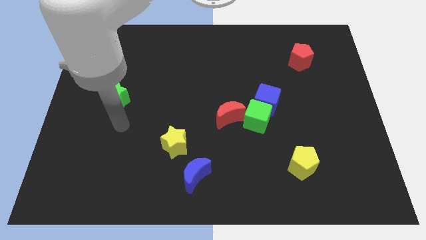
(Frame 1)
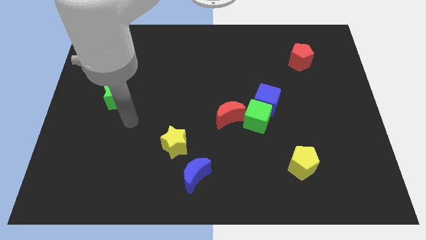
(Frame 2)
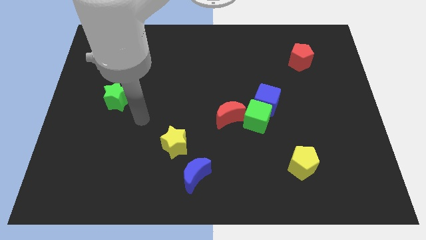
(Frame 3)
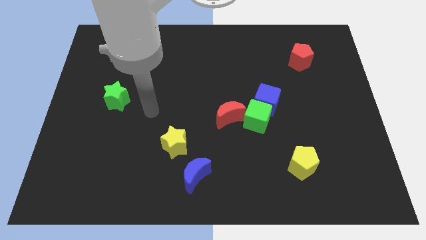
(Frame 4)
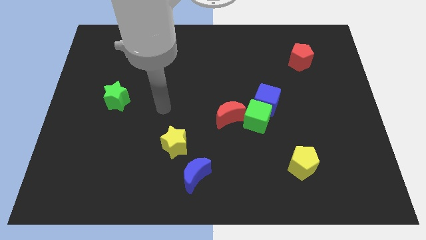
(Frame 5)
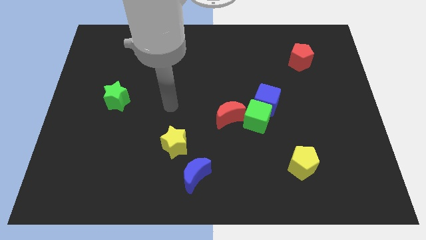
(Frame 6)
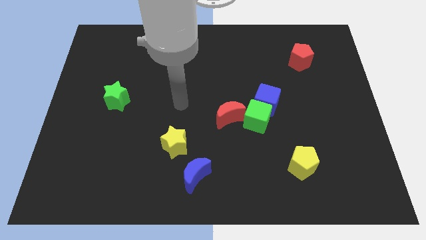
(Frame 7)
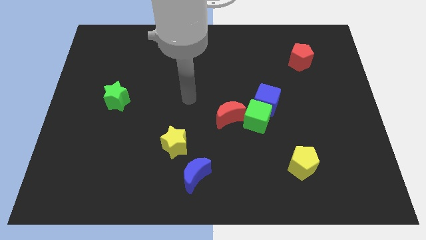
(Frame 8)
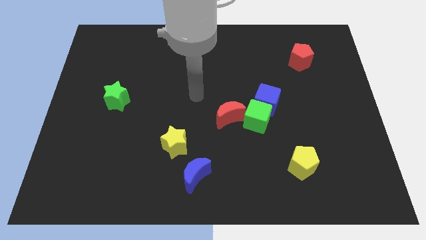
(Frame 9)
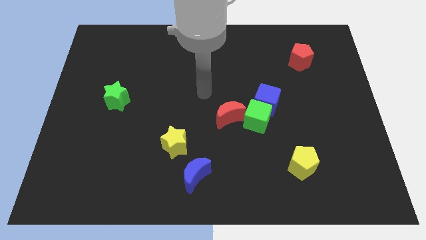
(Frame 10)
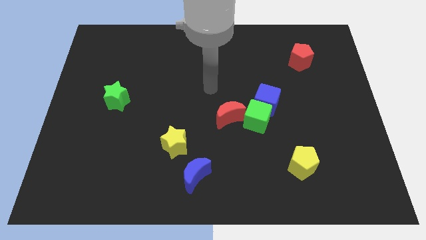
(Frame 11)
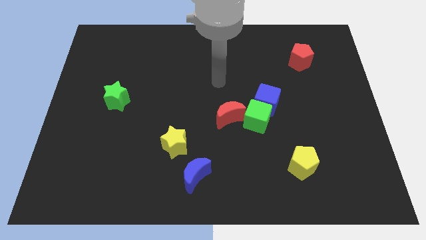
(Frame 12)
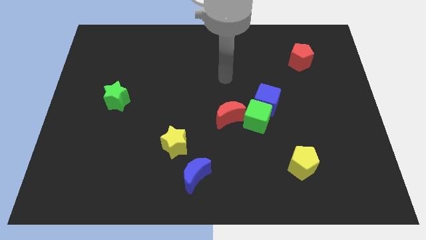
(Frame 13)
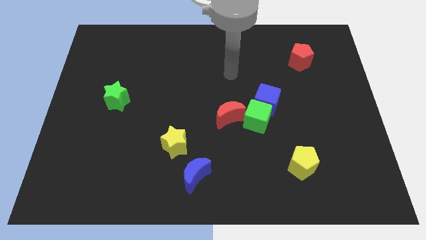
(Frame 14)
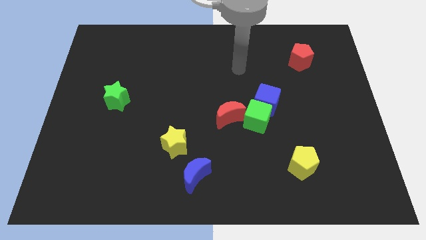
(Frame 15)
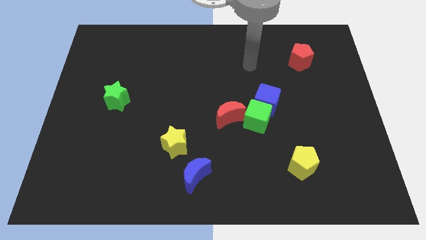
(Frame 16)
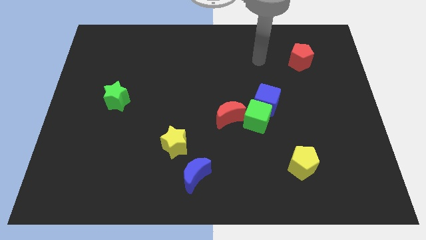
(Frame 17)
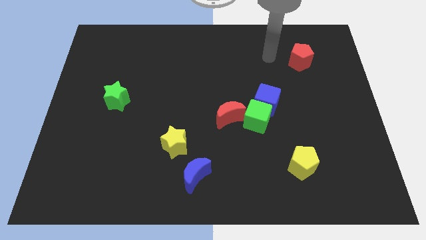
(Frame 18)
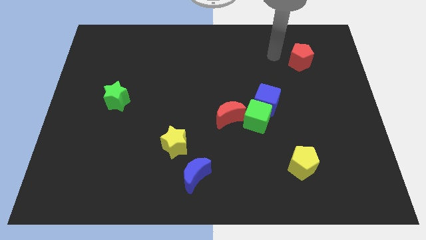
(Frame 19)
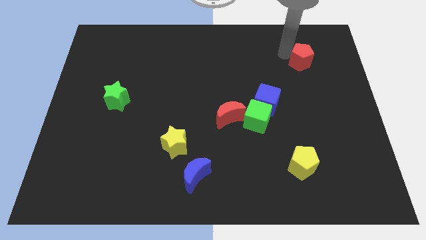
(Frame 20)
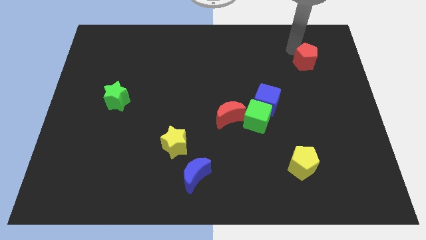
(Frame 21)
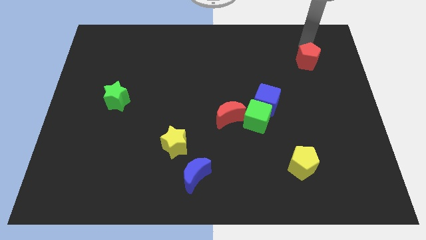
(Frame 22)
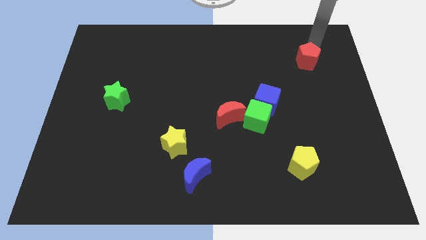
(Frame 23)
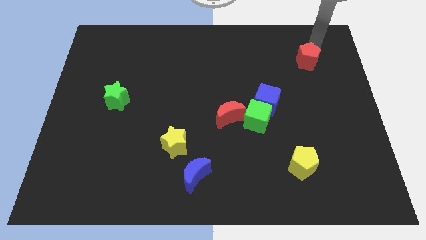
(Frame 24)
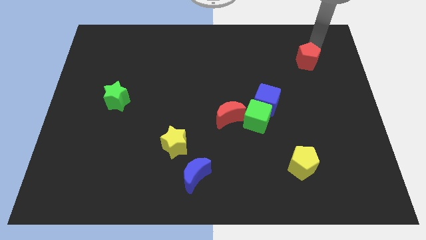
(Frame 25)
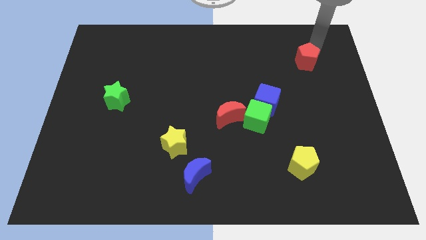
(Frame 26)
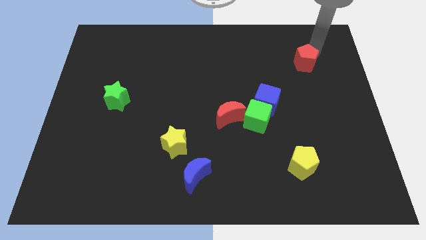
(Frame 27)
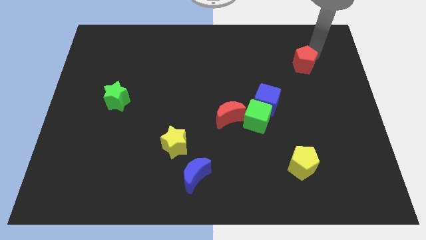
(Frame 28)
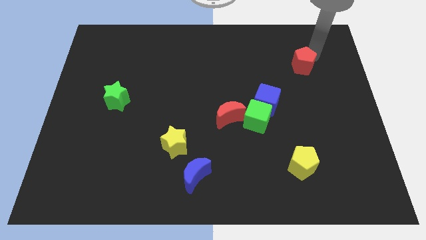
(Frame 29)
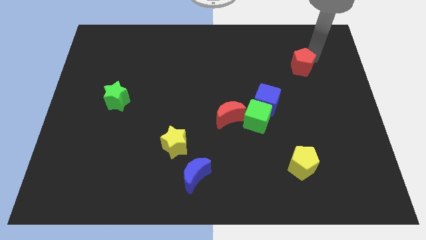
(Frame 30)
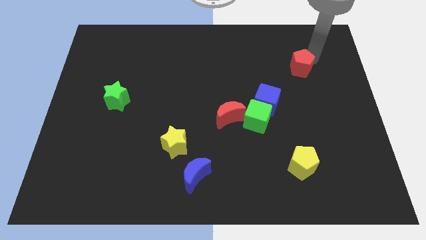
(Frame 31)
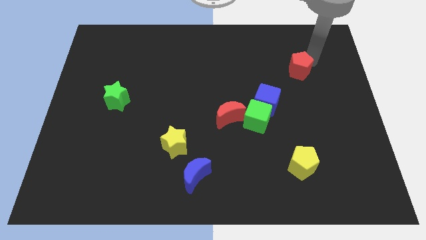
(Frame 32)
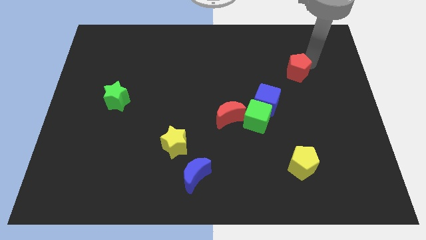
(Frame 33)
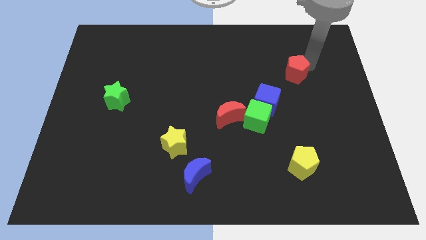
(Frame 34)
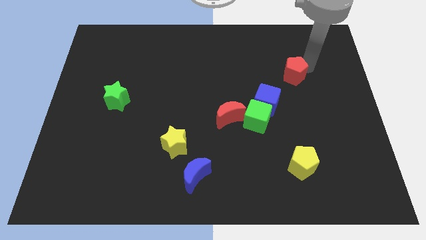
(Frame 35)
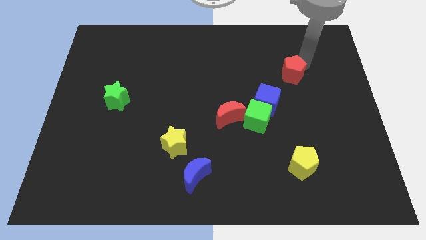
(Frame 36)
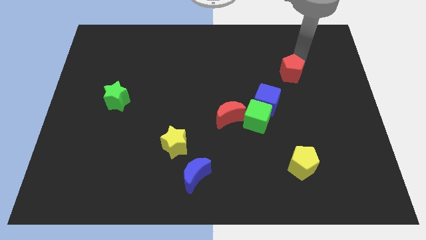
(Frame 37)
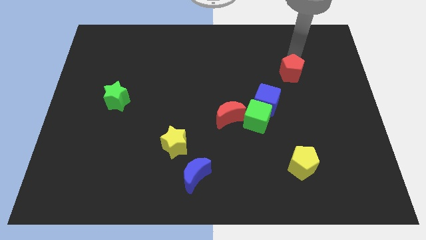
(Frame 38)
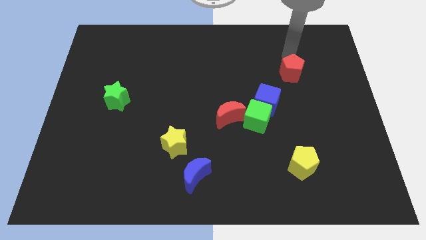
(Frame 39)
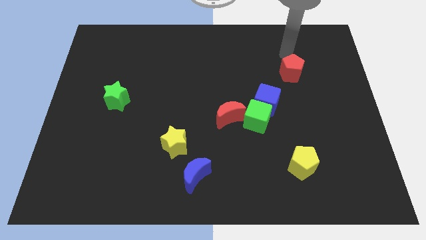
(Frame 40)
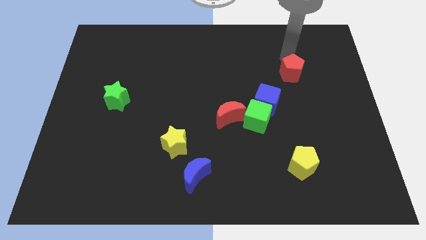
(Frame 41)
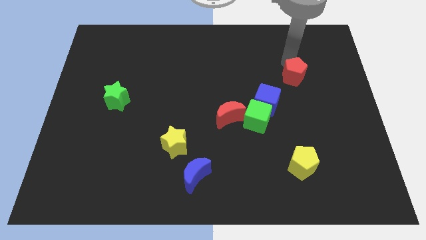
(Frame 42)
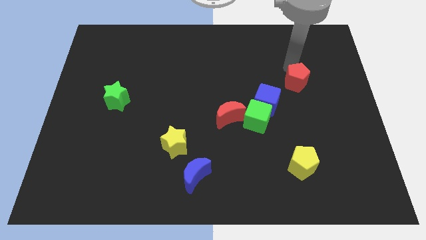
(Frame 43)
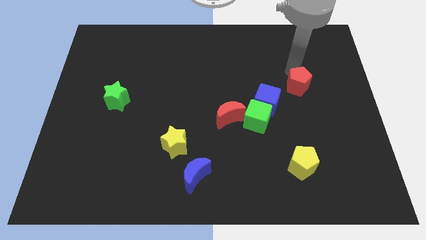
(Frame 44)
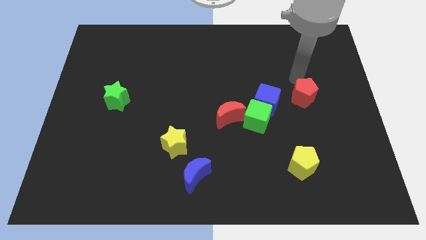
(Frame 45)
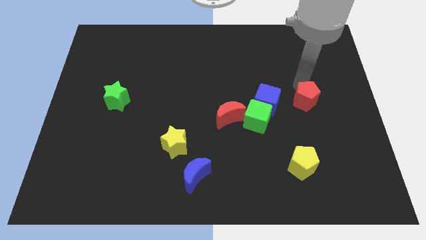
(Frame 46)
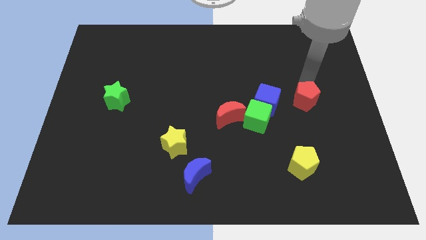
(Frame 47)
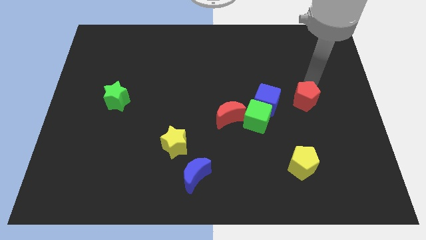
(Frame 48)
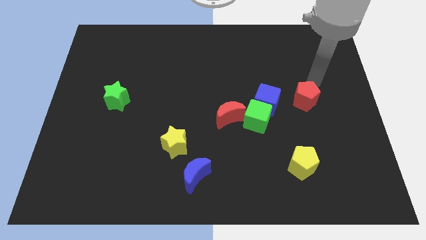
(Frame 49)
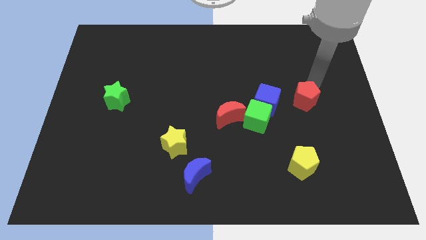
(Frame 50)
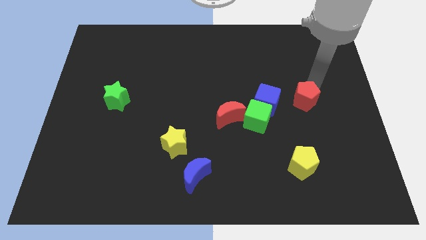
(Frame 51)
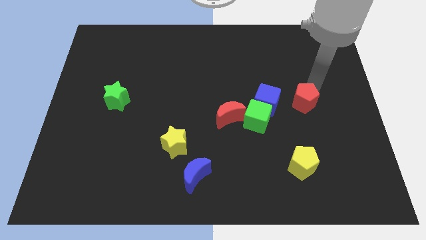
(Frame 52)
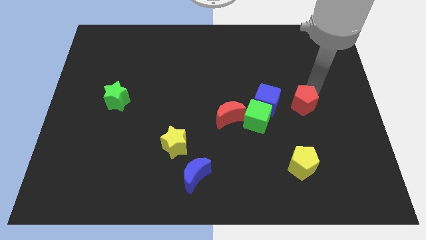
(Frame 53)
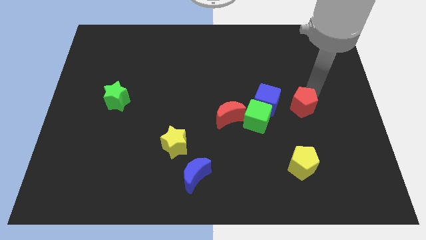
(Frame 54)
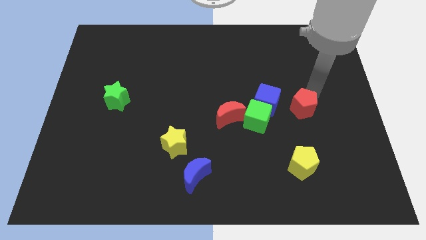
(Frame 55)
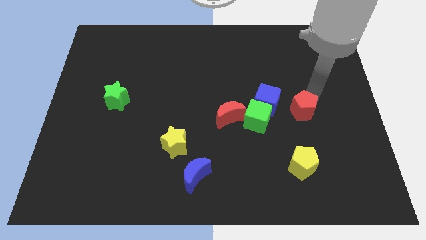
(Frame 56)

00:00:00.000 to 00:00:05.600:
push the red pentagon to the bottom right of the blue cube
